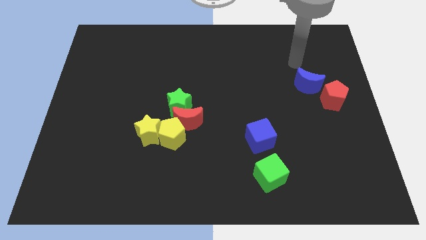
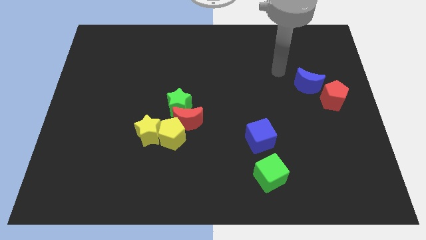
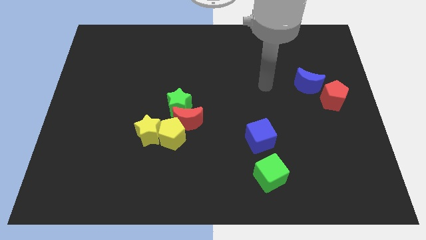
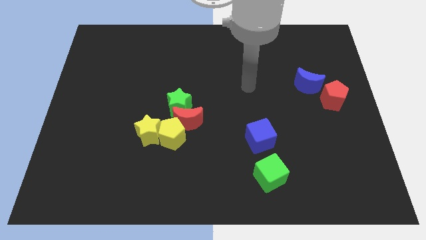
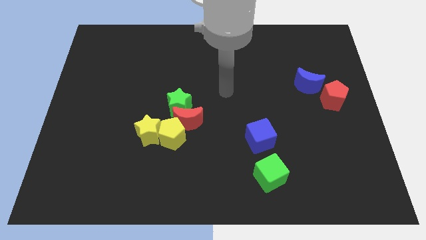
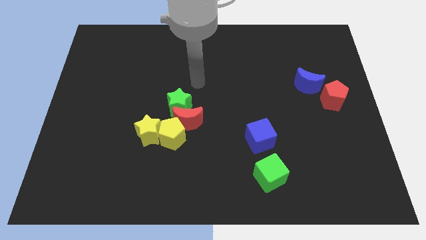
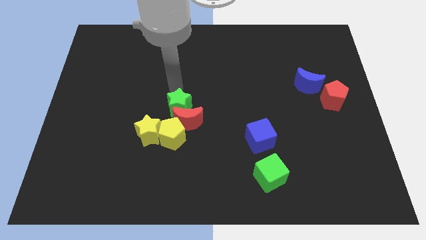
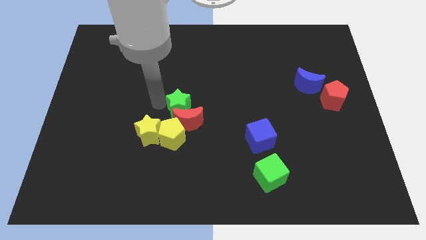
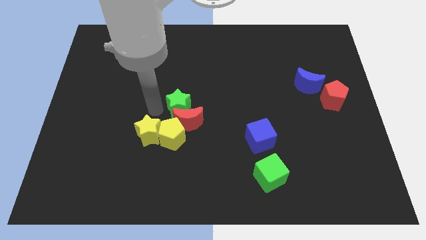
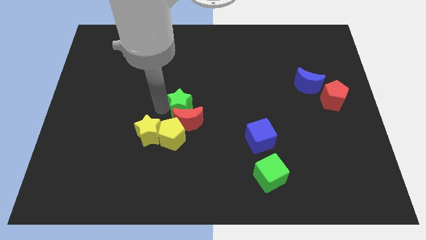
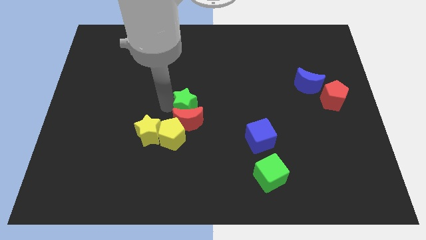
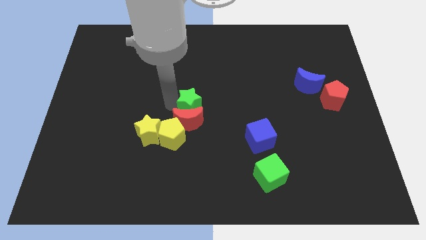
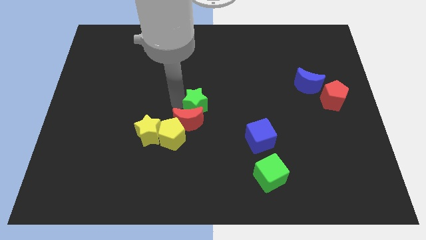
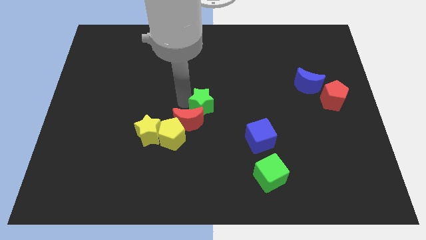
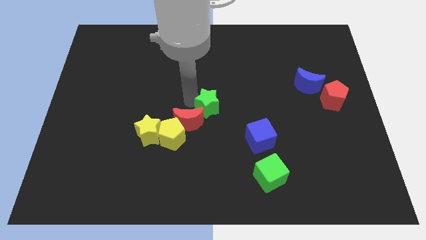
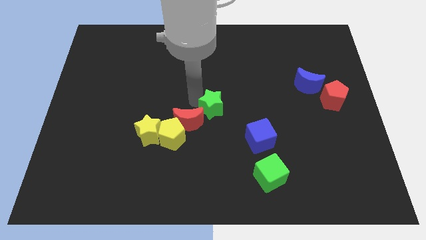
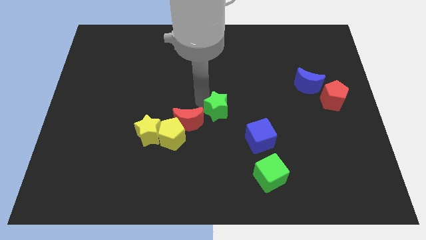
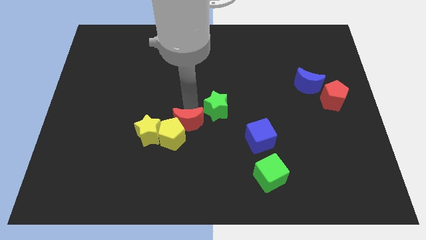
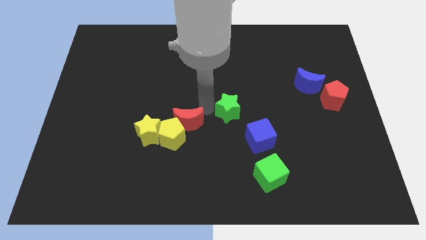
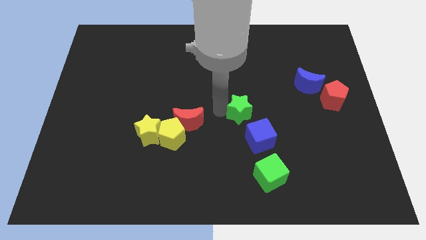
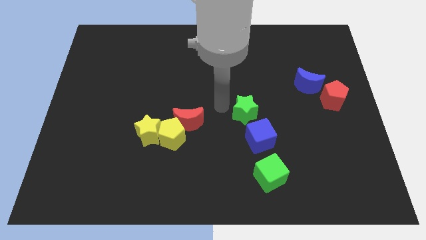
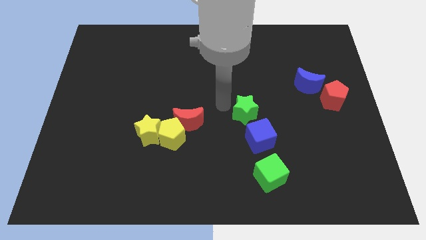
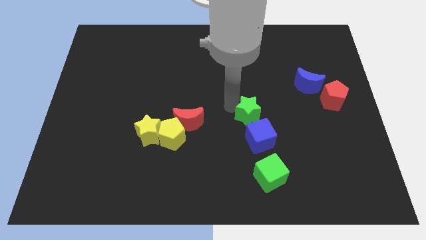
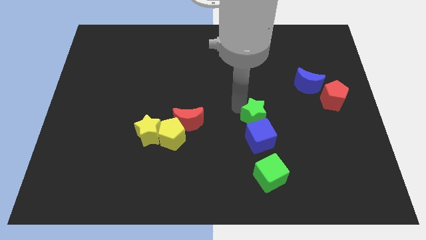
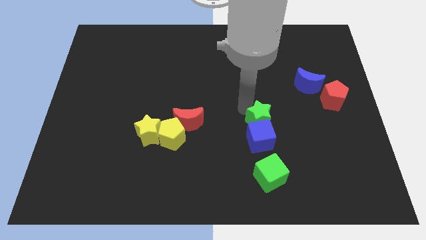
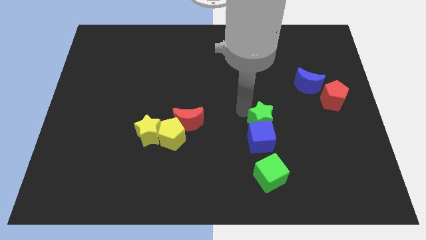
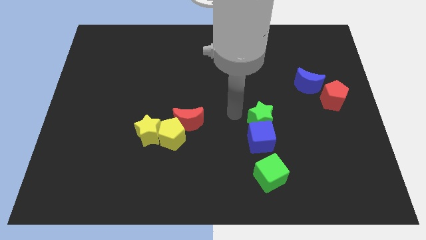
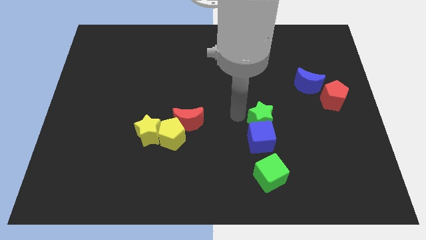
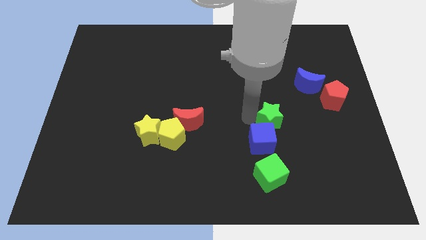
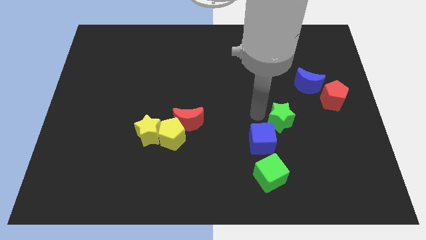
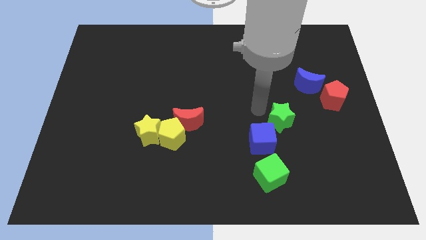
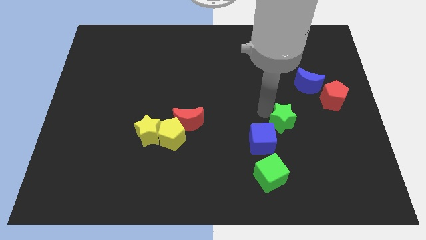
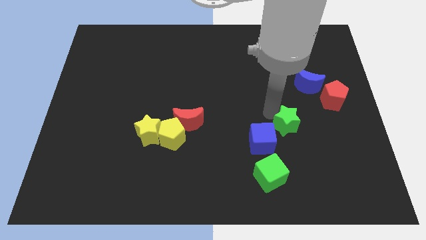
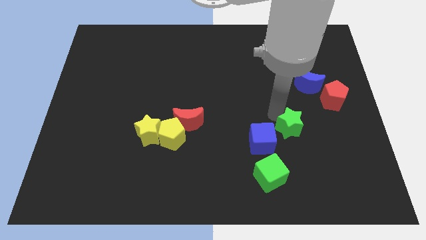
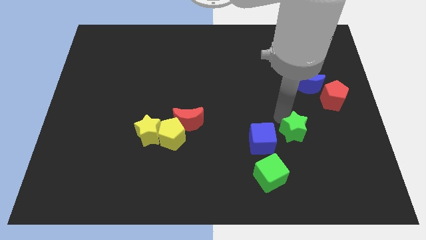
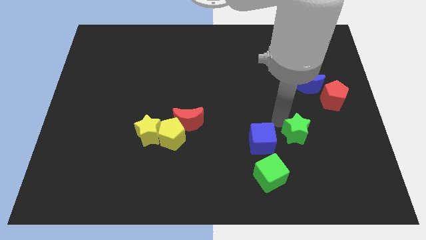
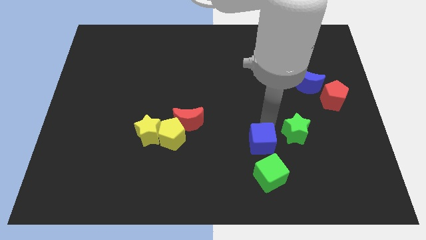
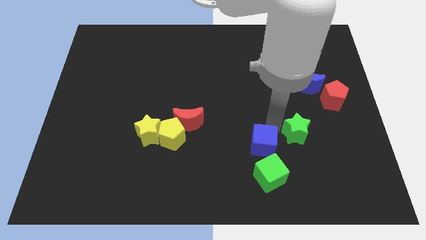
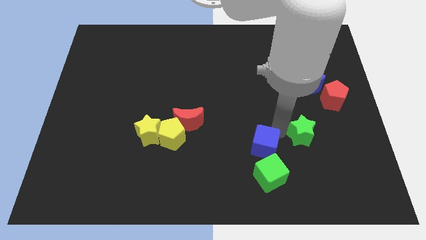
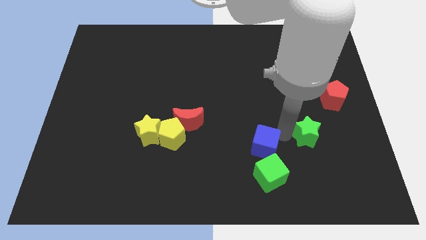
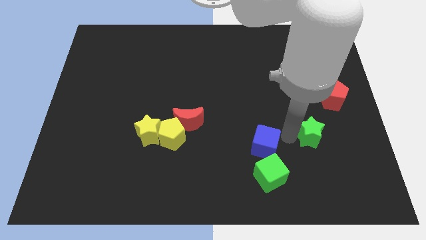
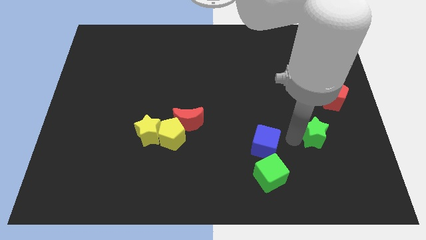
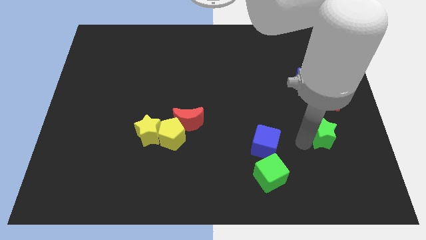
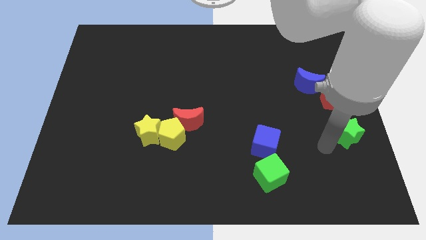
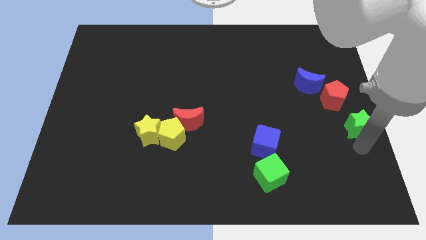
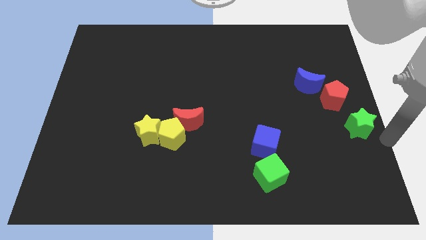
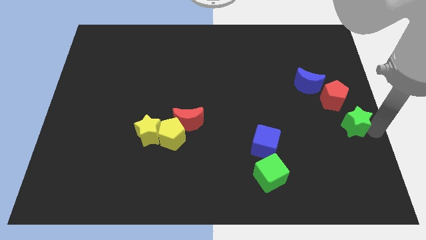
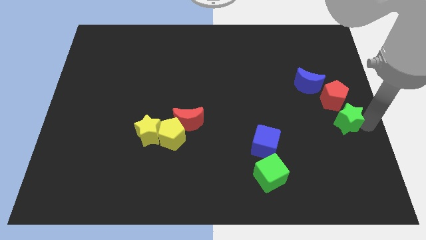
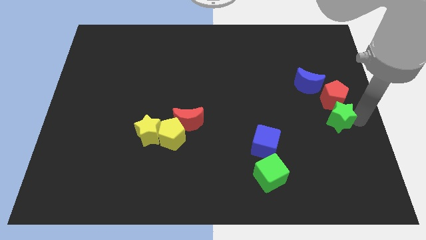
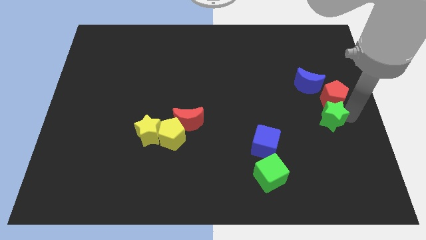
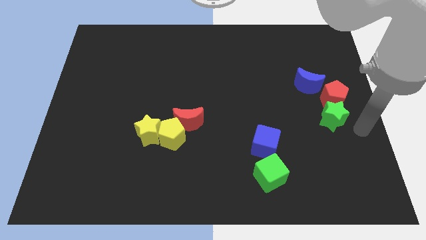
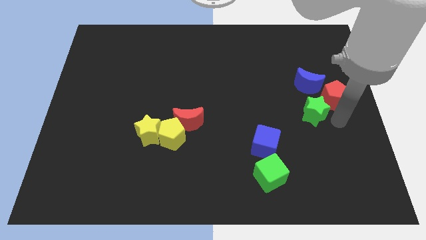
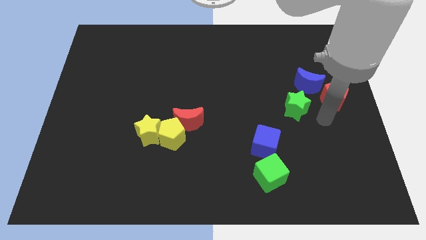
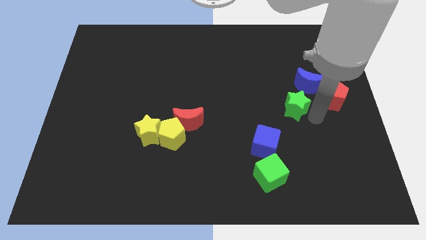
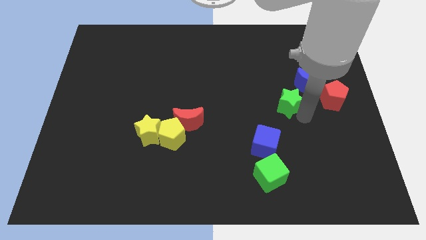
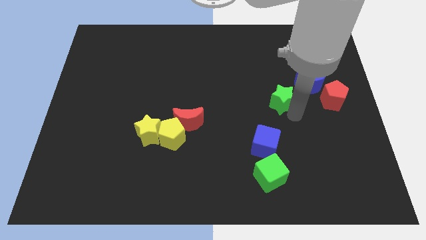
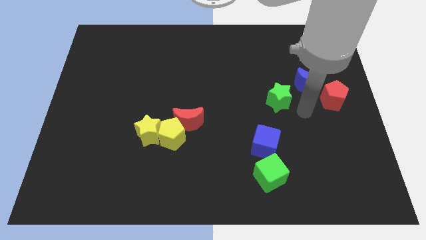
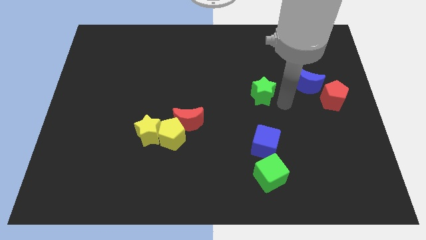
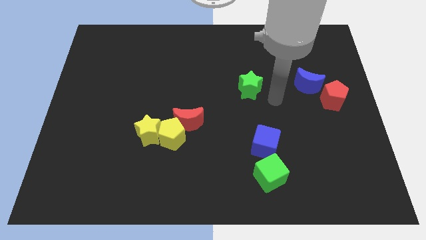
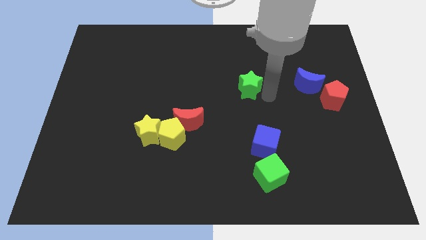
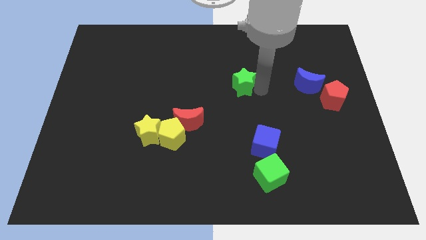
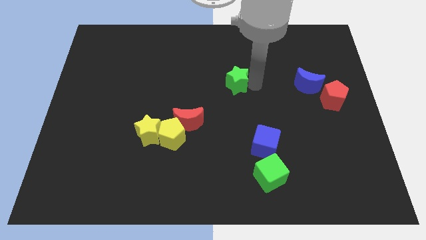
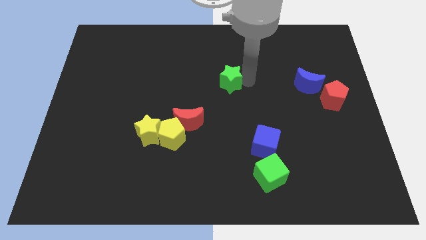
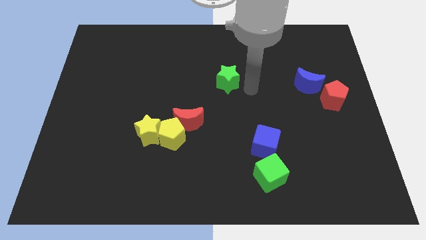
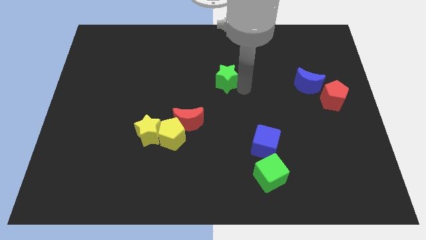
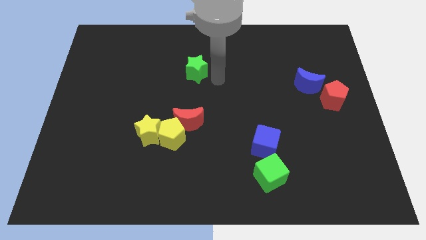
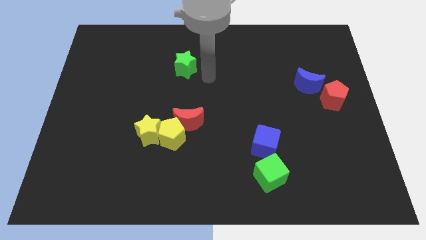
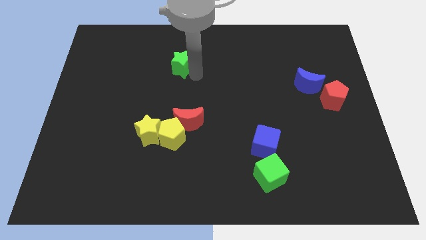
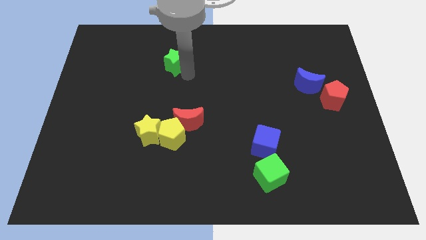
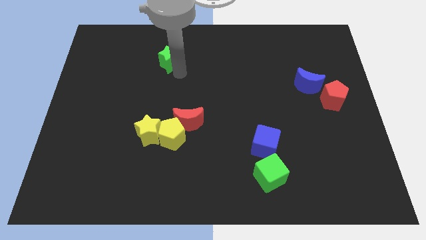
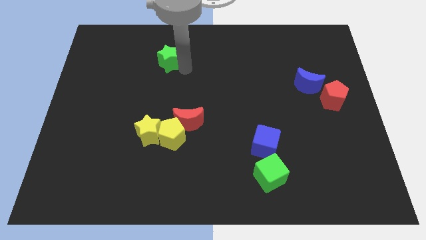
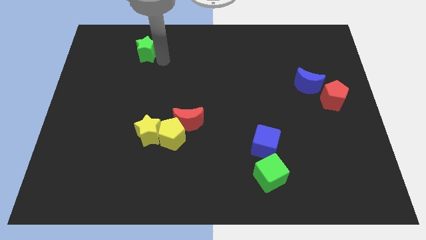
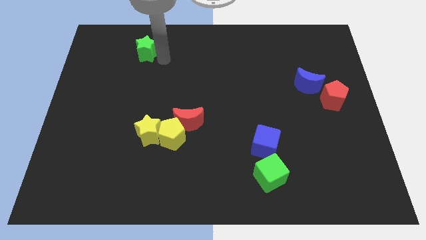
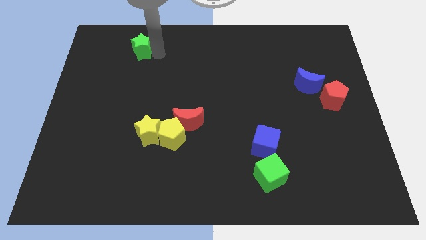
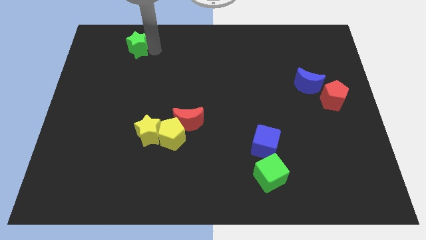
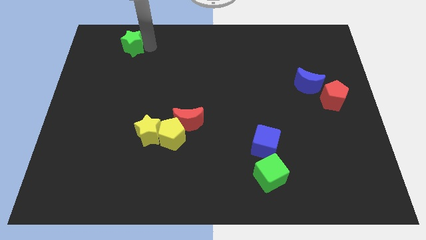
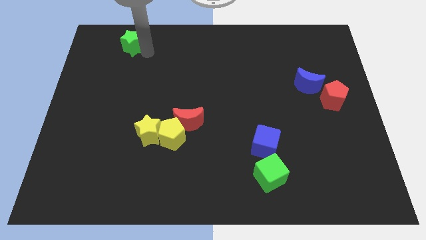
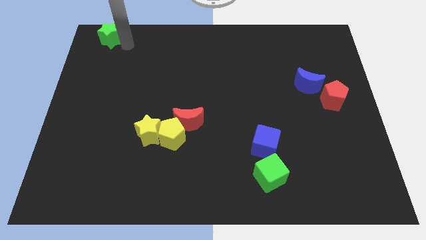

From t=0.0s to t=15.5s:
slide the green star to the top left
